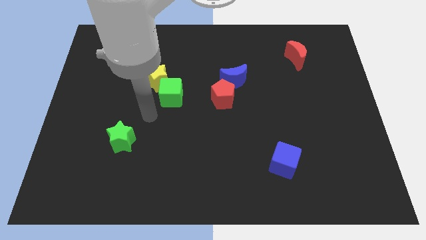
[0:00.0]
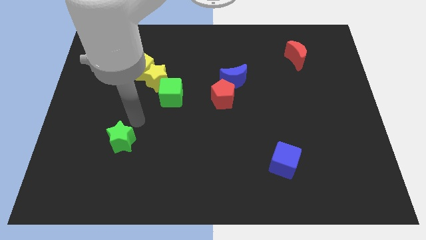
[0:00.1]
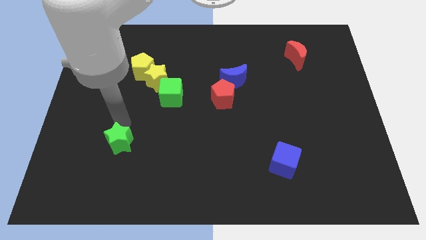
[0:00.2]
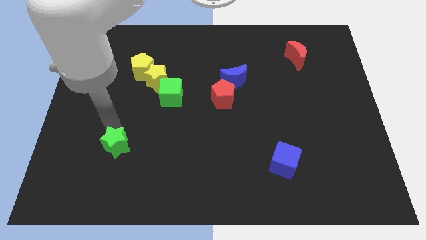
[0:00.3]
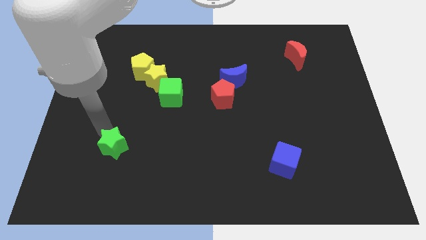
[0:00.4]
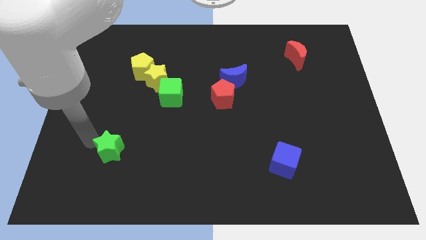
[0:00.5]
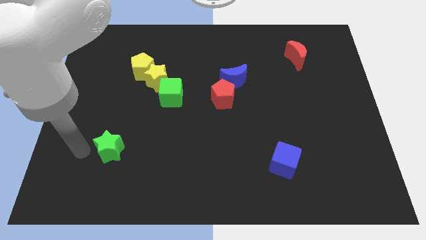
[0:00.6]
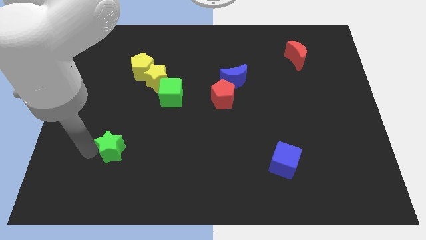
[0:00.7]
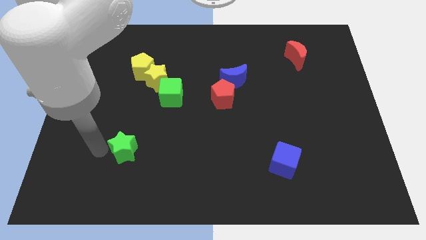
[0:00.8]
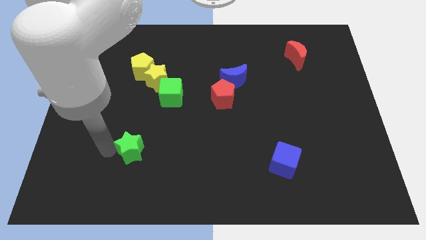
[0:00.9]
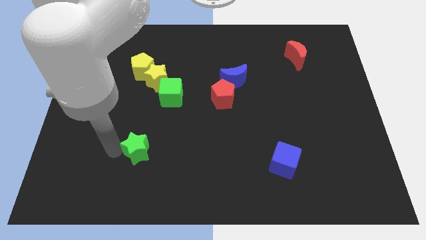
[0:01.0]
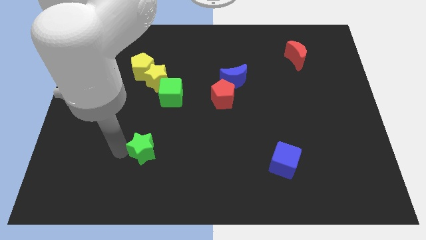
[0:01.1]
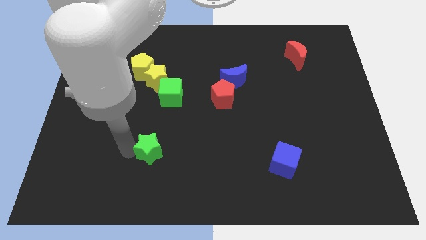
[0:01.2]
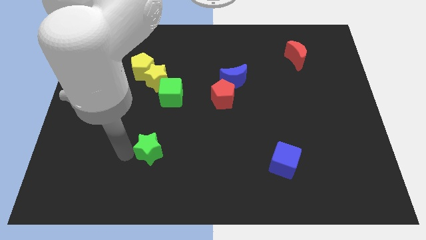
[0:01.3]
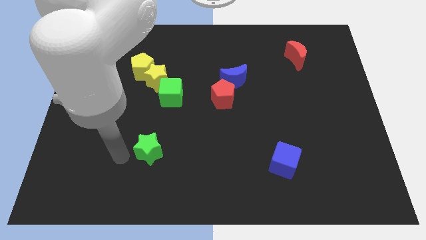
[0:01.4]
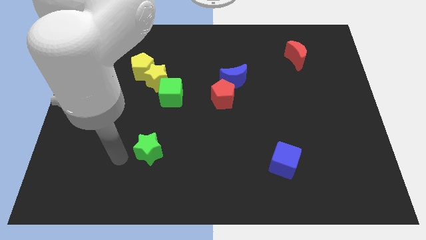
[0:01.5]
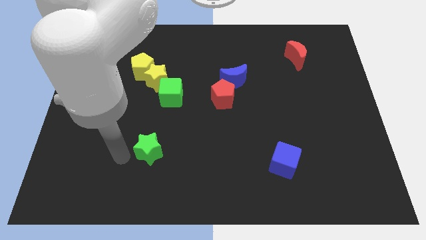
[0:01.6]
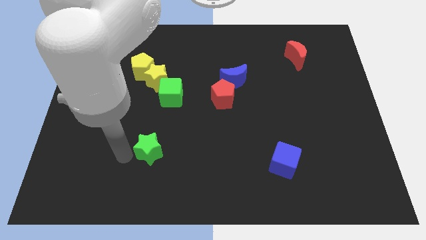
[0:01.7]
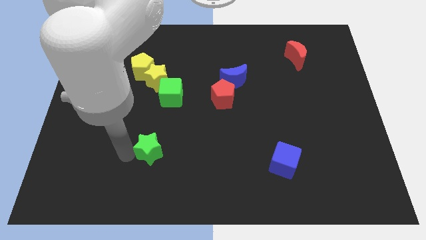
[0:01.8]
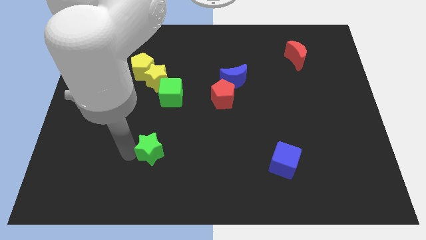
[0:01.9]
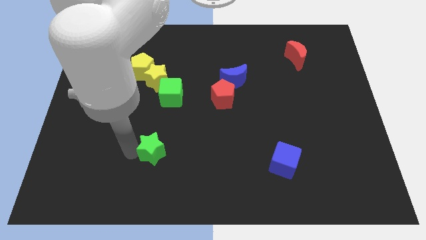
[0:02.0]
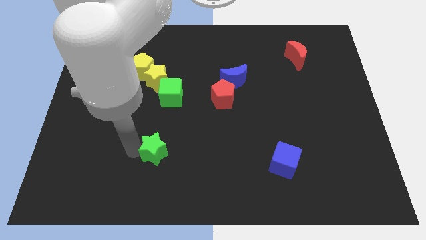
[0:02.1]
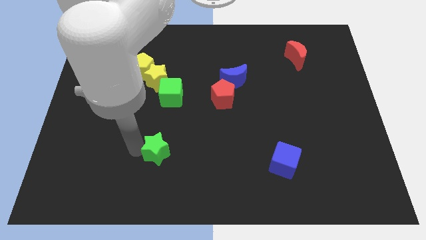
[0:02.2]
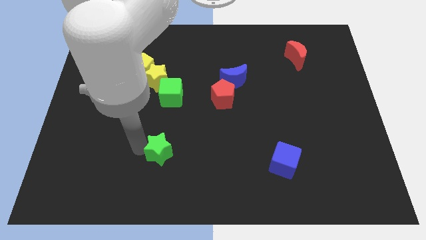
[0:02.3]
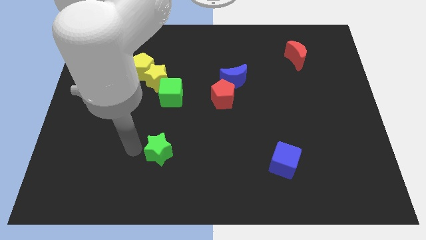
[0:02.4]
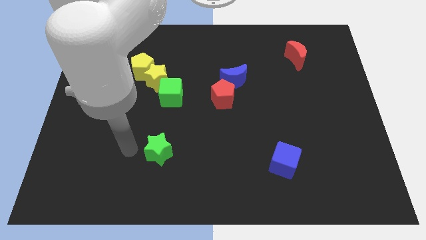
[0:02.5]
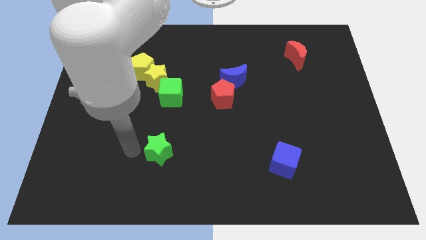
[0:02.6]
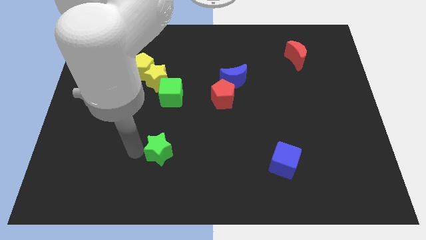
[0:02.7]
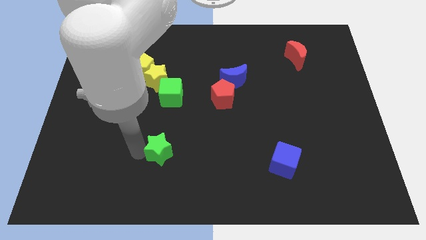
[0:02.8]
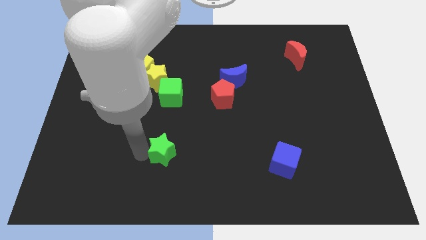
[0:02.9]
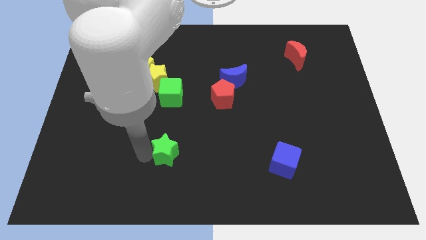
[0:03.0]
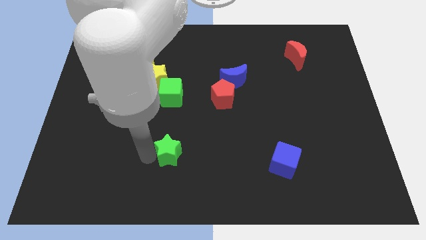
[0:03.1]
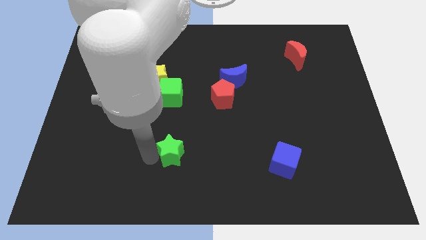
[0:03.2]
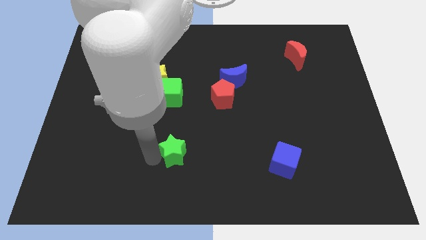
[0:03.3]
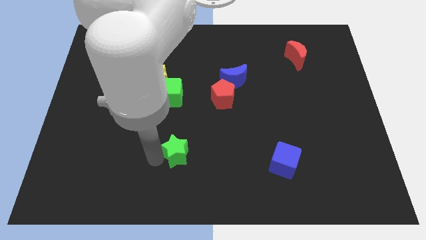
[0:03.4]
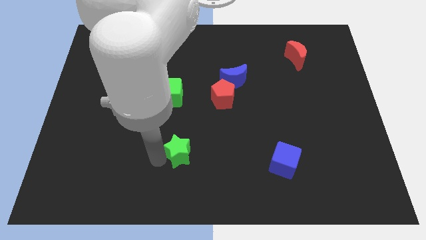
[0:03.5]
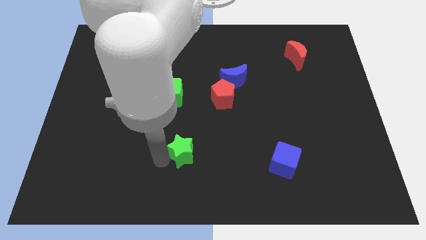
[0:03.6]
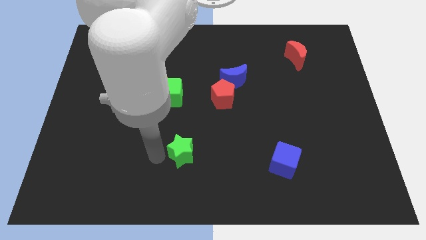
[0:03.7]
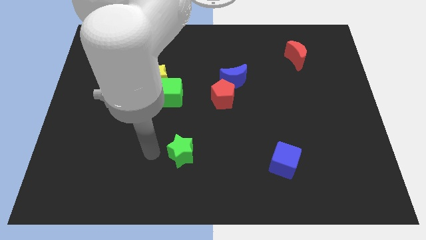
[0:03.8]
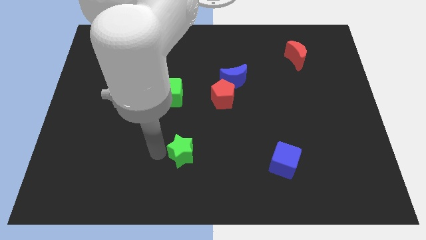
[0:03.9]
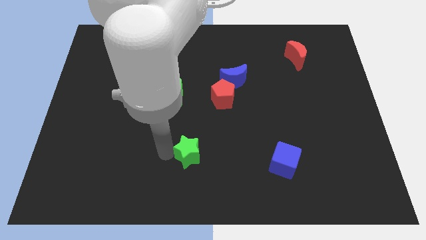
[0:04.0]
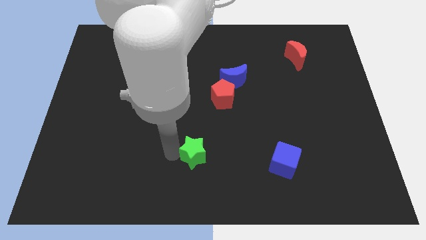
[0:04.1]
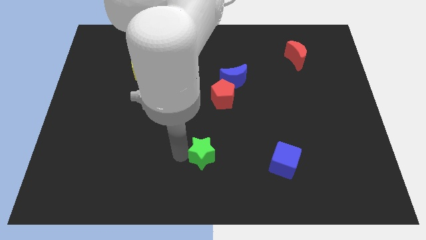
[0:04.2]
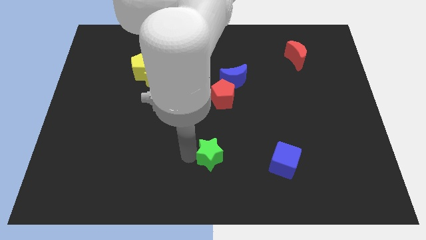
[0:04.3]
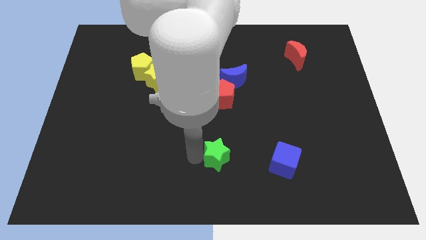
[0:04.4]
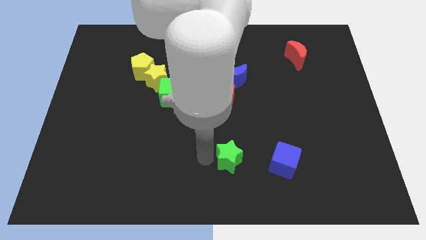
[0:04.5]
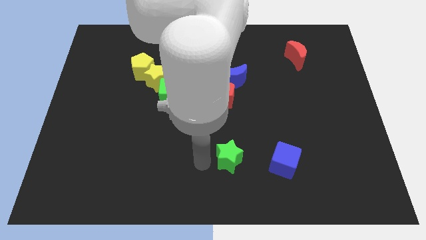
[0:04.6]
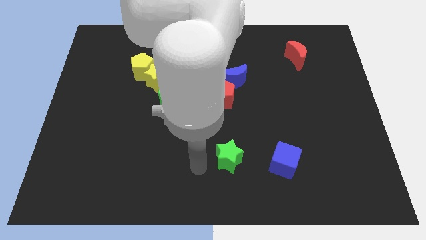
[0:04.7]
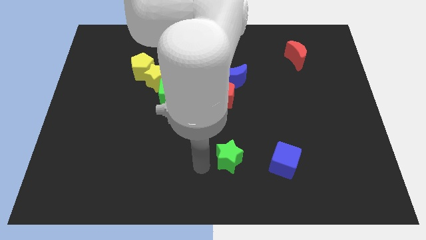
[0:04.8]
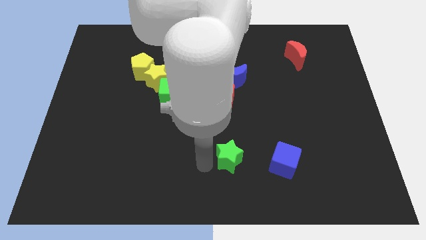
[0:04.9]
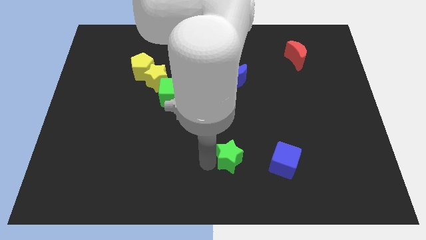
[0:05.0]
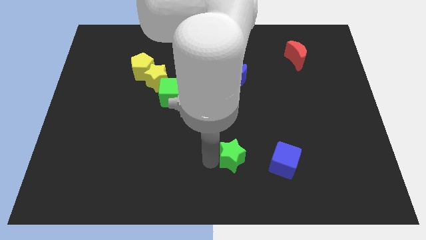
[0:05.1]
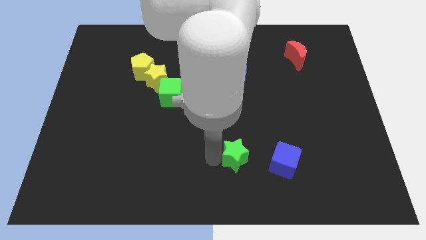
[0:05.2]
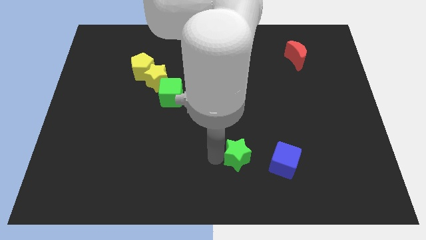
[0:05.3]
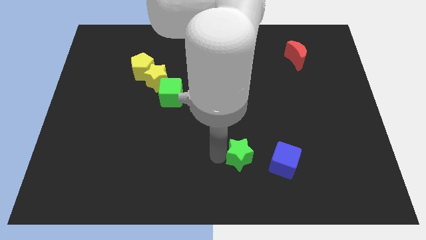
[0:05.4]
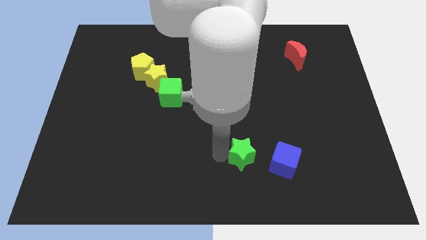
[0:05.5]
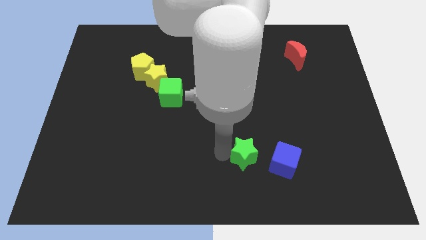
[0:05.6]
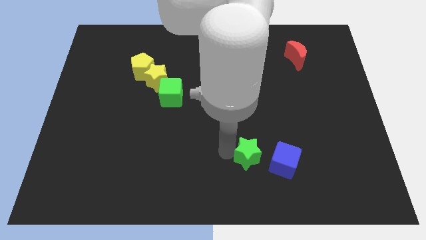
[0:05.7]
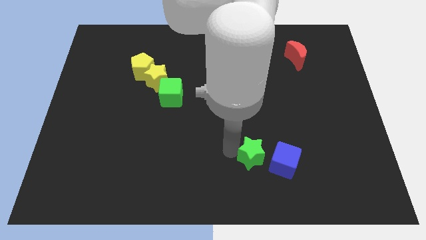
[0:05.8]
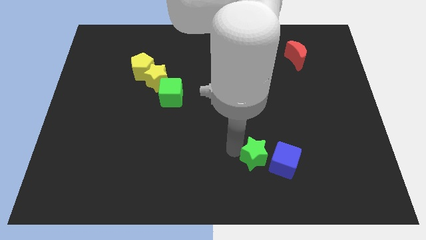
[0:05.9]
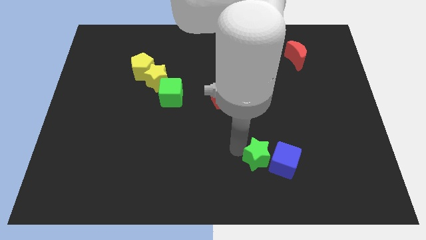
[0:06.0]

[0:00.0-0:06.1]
move the green star close to the blue cube

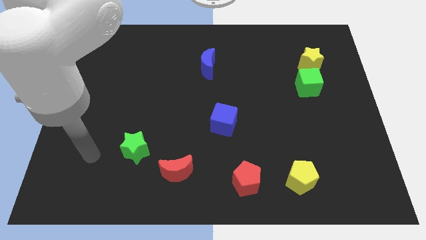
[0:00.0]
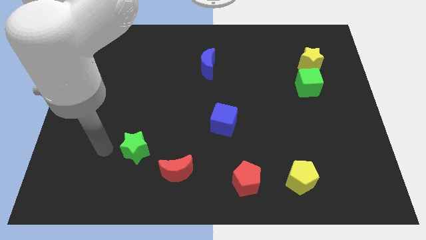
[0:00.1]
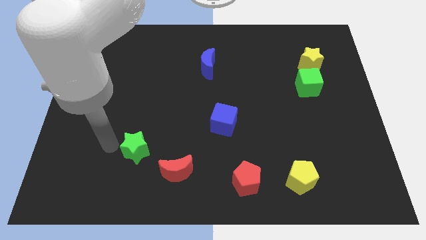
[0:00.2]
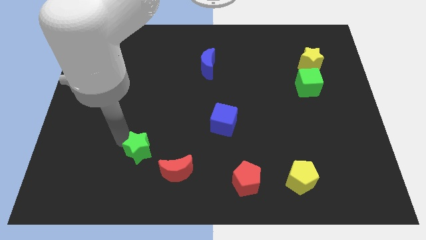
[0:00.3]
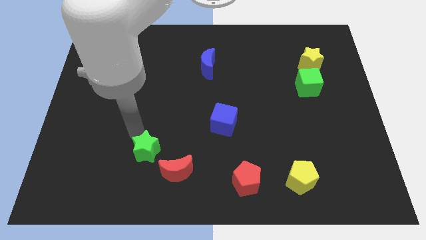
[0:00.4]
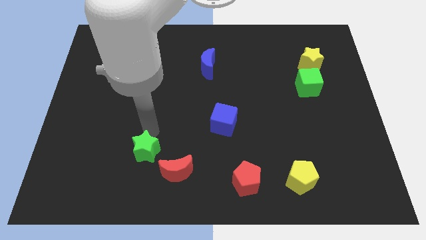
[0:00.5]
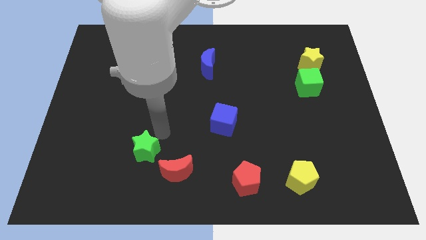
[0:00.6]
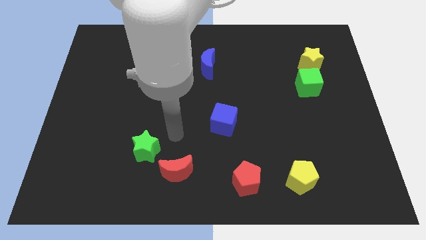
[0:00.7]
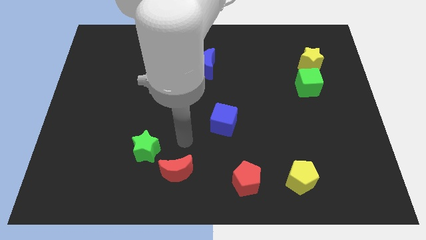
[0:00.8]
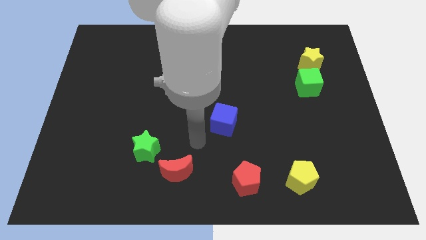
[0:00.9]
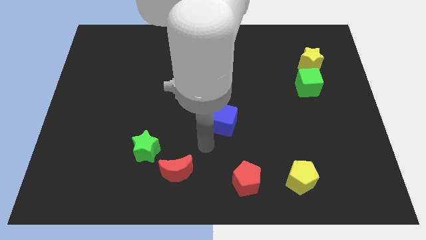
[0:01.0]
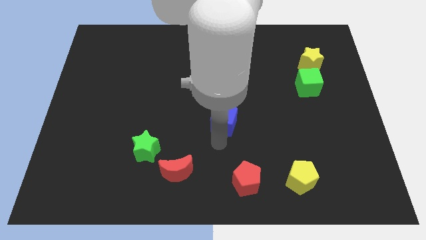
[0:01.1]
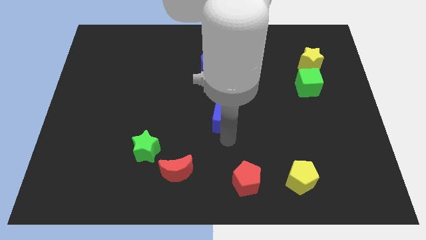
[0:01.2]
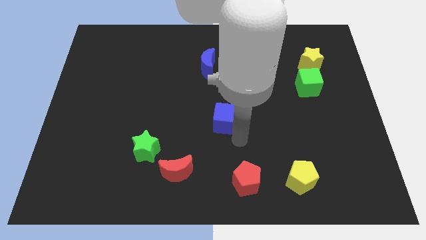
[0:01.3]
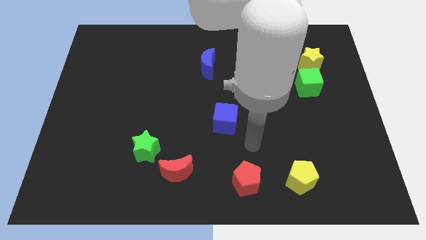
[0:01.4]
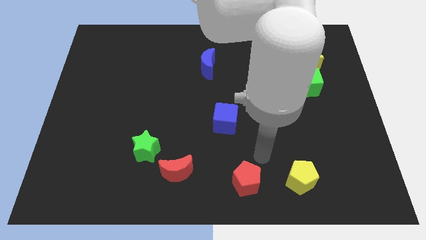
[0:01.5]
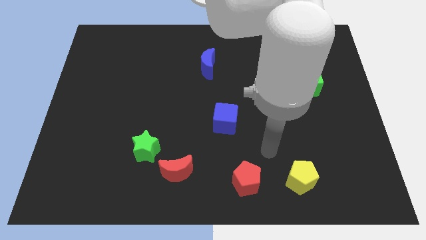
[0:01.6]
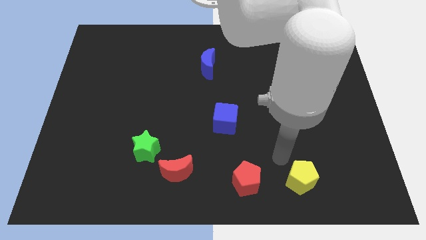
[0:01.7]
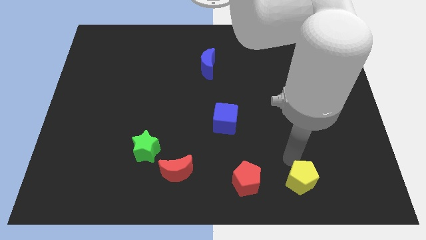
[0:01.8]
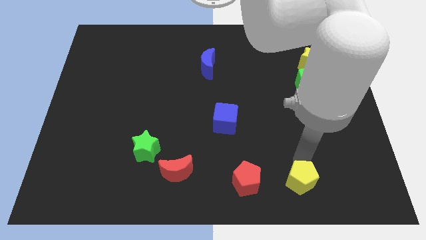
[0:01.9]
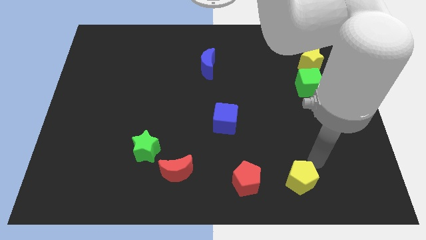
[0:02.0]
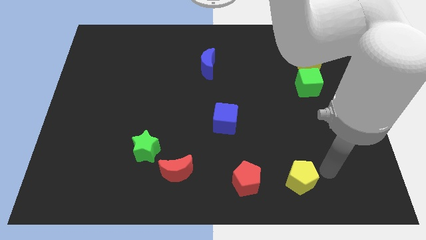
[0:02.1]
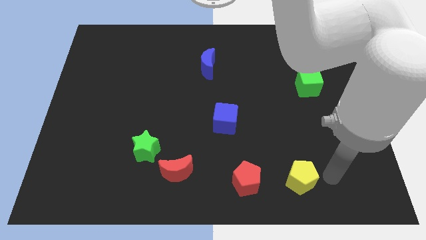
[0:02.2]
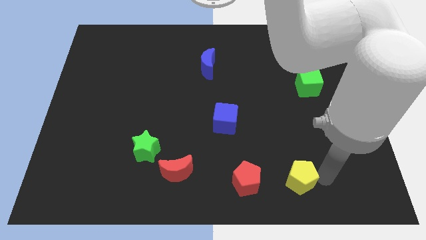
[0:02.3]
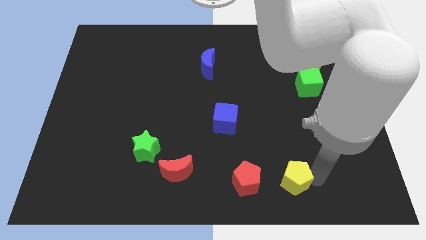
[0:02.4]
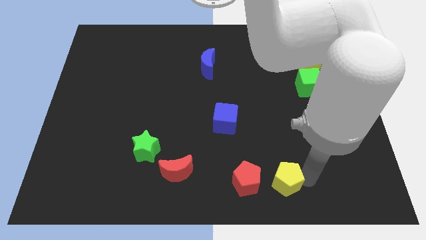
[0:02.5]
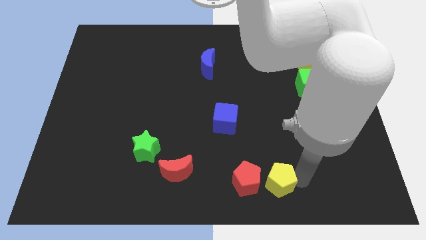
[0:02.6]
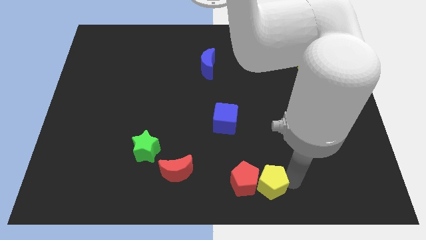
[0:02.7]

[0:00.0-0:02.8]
move the yellow pentagon towards the red pentagon
